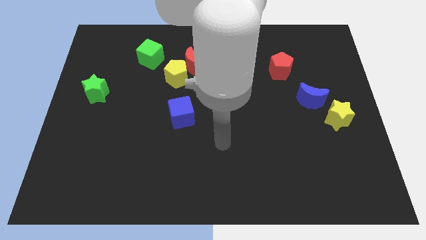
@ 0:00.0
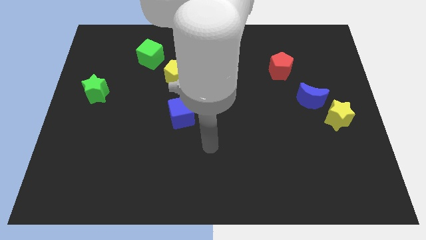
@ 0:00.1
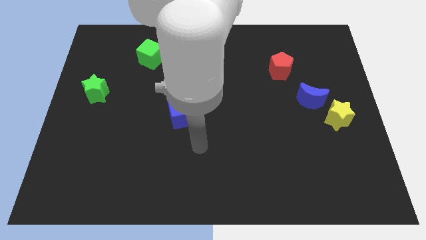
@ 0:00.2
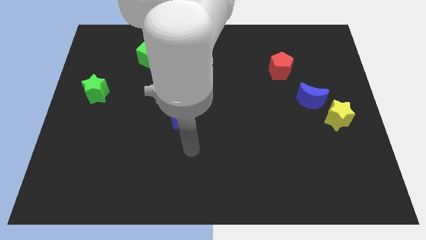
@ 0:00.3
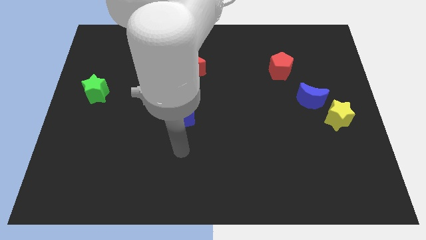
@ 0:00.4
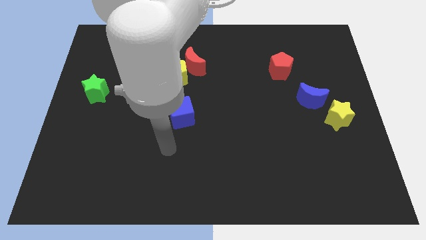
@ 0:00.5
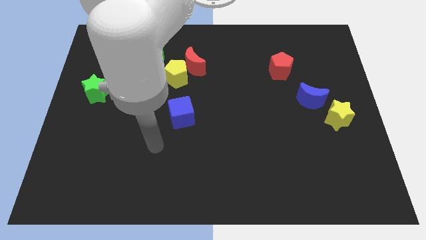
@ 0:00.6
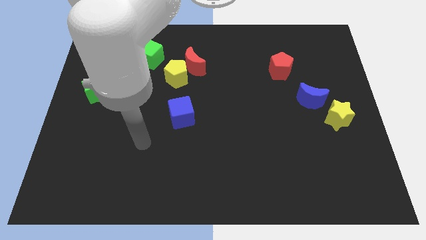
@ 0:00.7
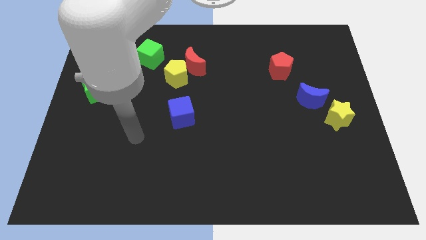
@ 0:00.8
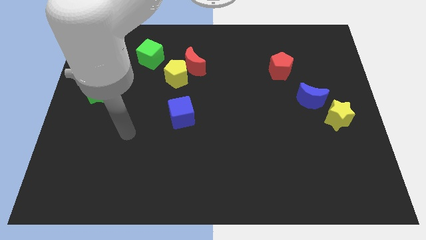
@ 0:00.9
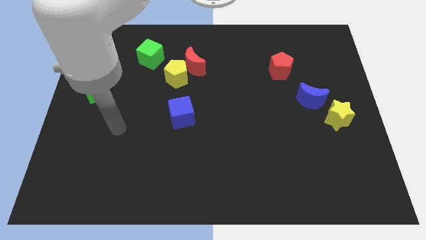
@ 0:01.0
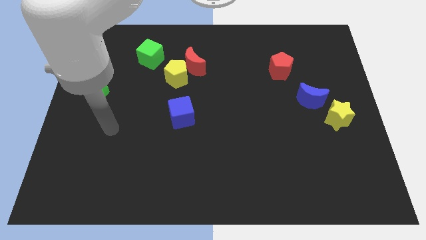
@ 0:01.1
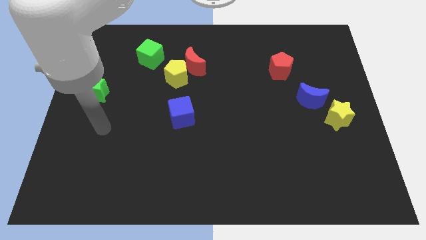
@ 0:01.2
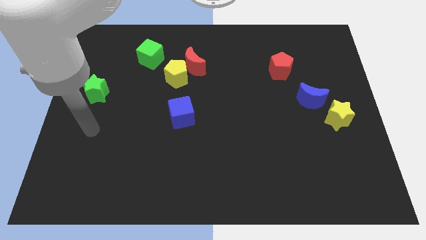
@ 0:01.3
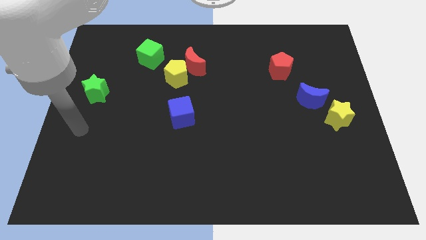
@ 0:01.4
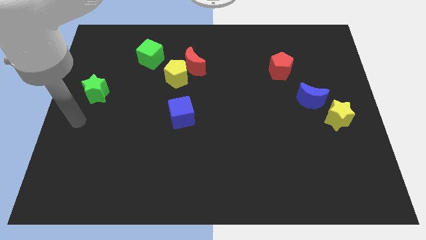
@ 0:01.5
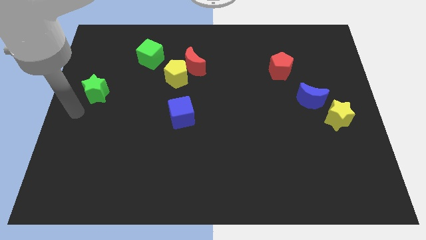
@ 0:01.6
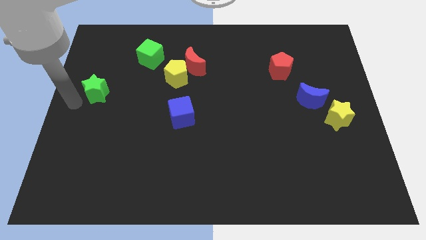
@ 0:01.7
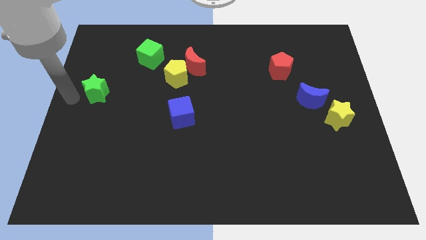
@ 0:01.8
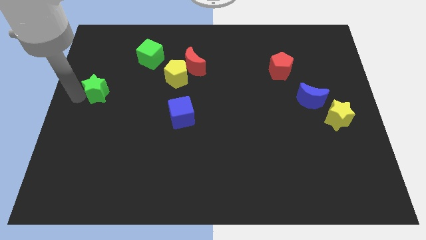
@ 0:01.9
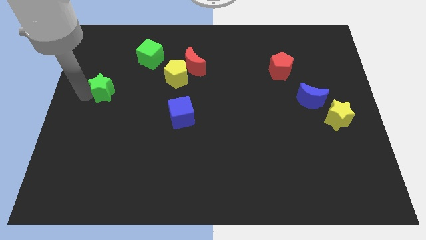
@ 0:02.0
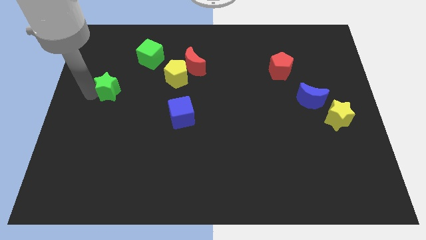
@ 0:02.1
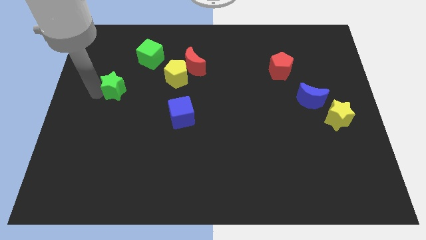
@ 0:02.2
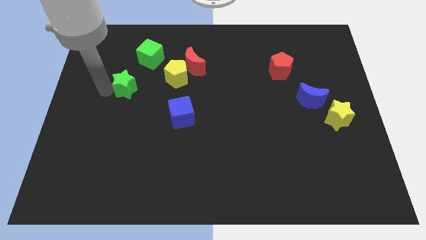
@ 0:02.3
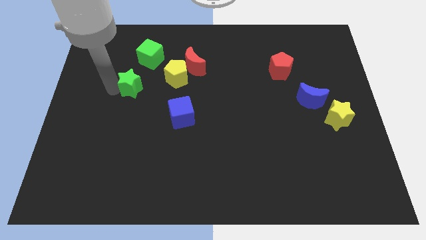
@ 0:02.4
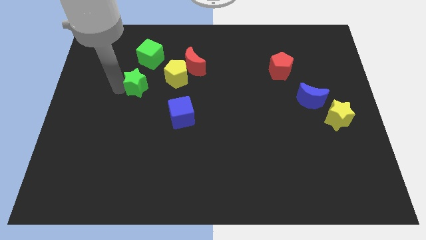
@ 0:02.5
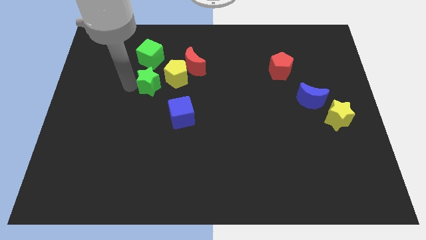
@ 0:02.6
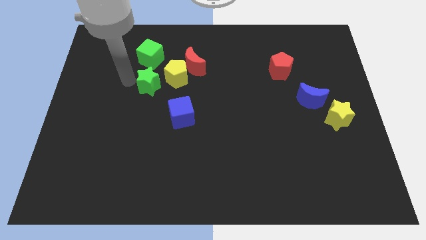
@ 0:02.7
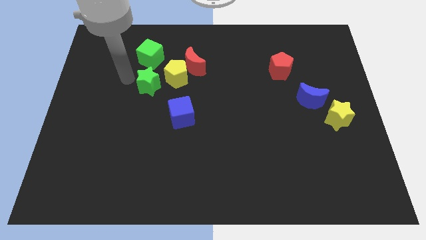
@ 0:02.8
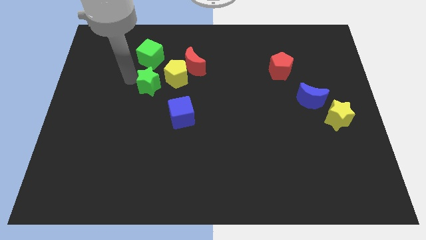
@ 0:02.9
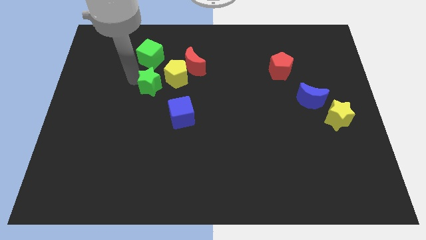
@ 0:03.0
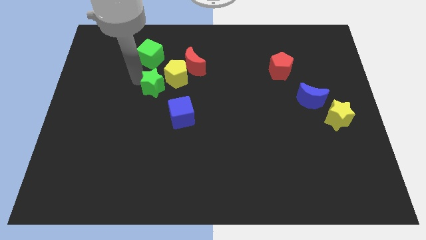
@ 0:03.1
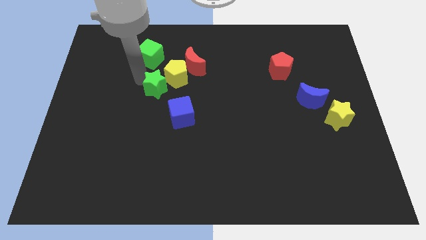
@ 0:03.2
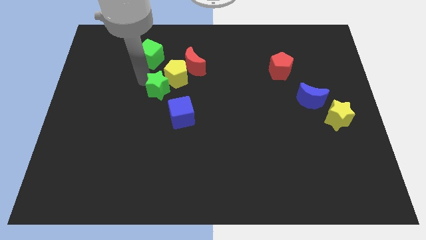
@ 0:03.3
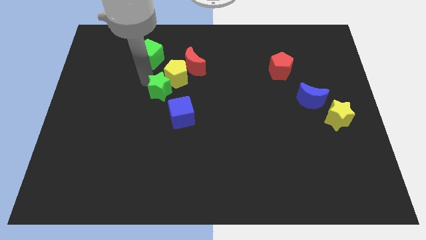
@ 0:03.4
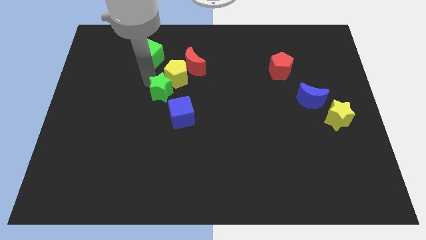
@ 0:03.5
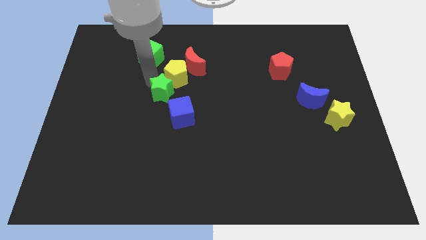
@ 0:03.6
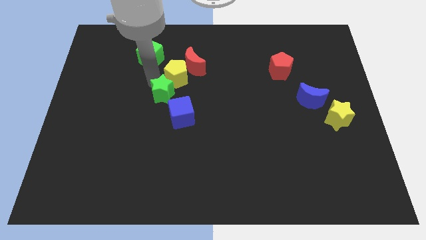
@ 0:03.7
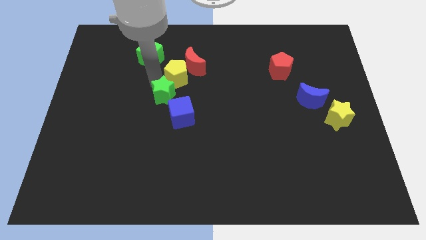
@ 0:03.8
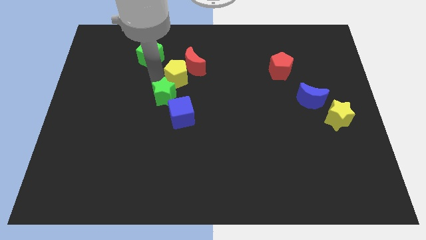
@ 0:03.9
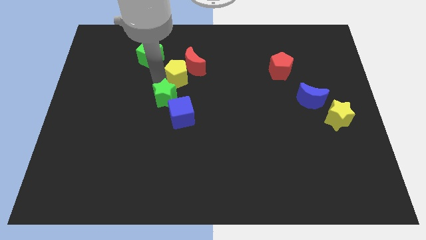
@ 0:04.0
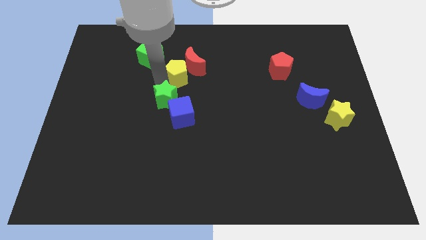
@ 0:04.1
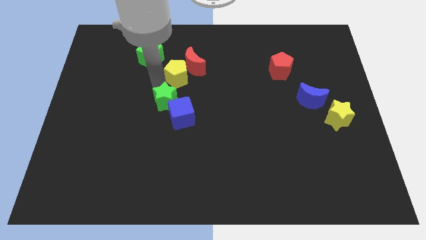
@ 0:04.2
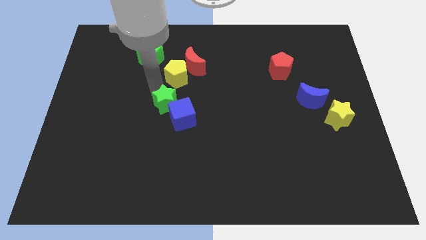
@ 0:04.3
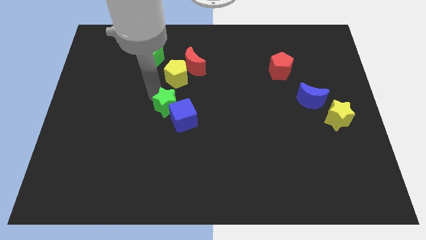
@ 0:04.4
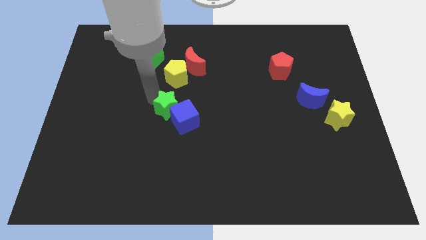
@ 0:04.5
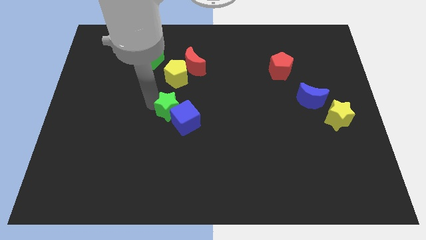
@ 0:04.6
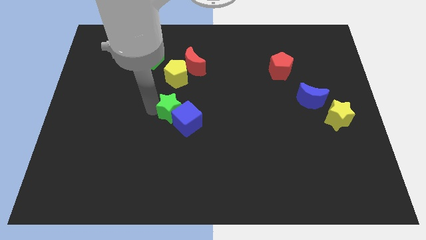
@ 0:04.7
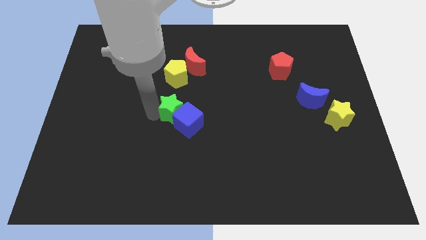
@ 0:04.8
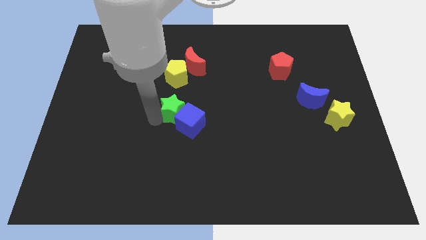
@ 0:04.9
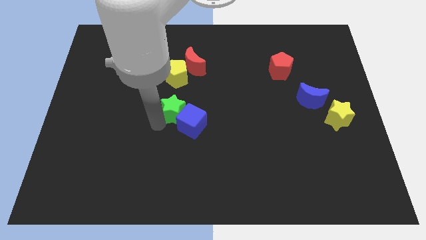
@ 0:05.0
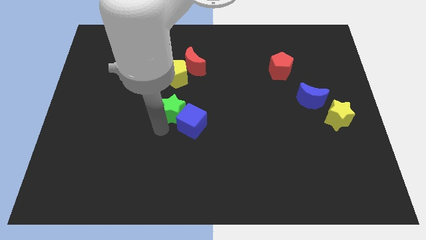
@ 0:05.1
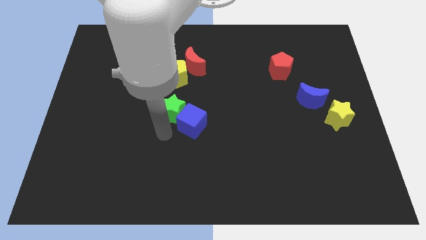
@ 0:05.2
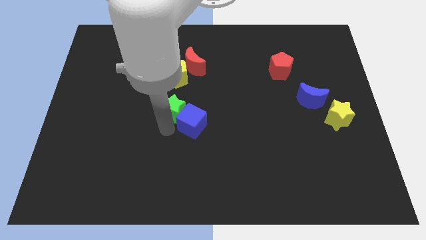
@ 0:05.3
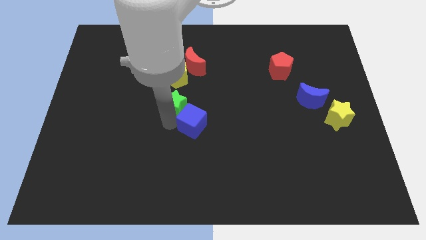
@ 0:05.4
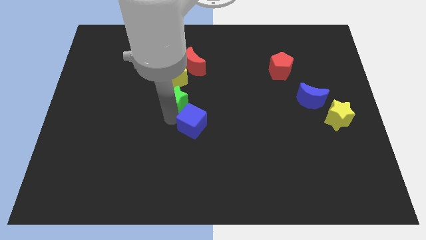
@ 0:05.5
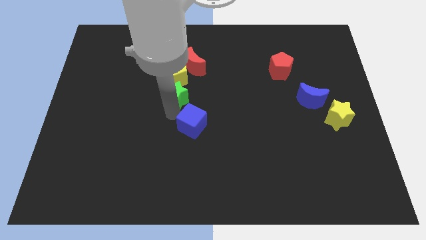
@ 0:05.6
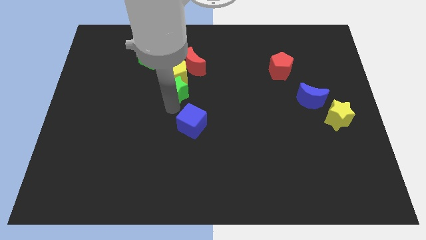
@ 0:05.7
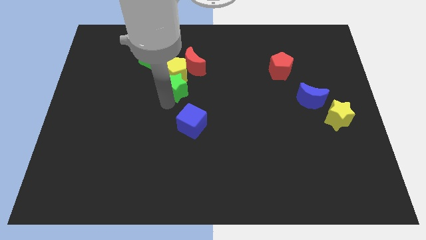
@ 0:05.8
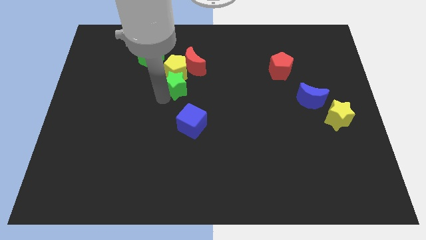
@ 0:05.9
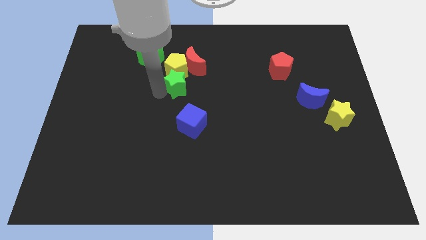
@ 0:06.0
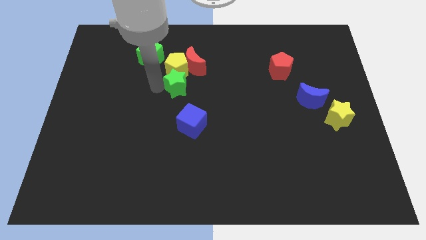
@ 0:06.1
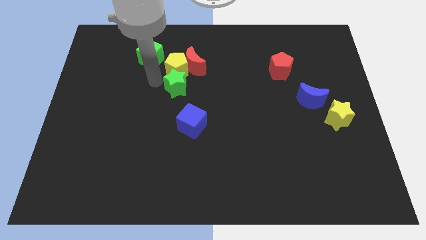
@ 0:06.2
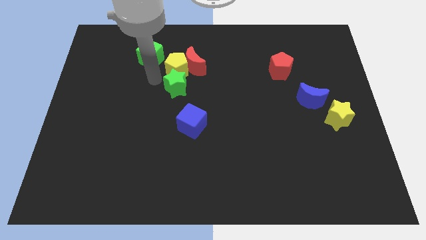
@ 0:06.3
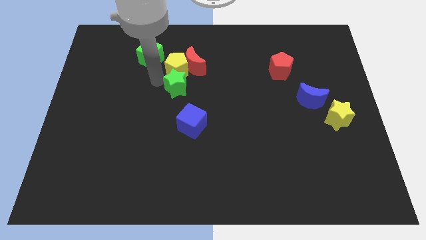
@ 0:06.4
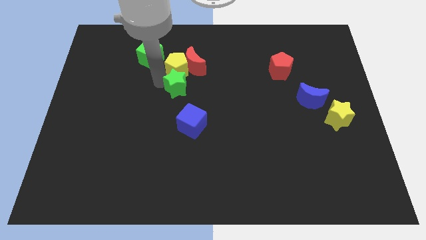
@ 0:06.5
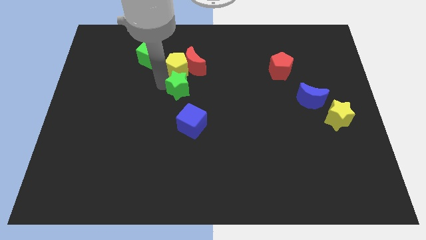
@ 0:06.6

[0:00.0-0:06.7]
push the green star to the right

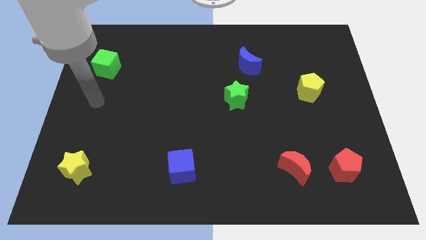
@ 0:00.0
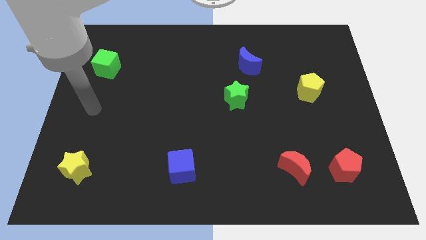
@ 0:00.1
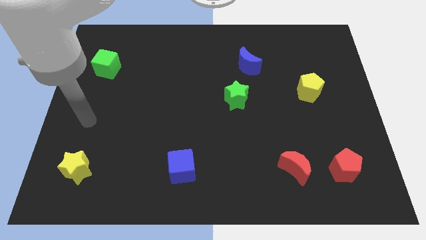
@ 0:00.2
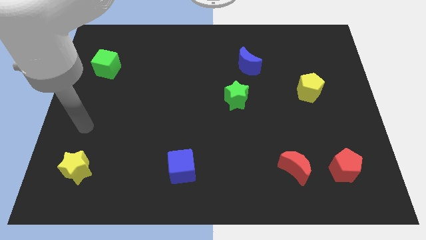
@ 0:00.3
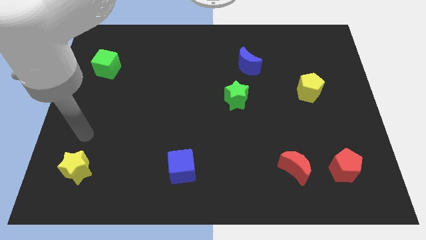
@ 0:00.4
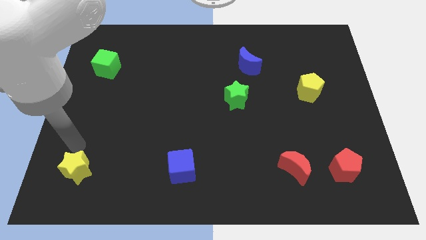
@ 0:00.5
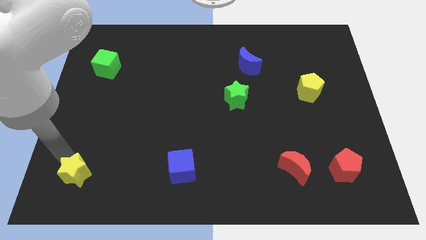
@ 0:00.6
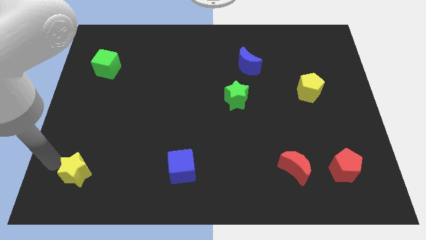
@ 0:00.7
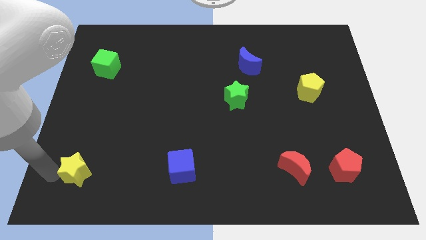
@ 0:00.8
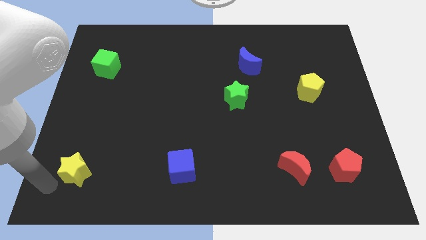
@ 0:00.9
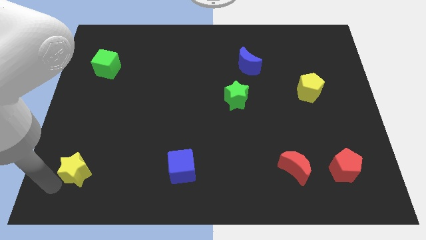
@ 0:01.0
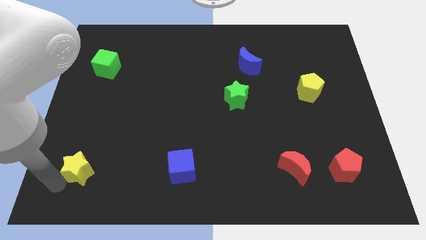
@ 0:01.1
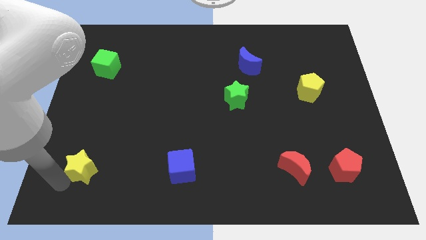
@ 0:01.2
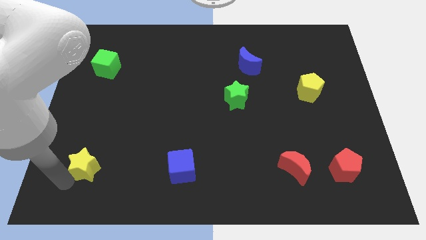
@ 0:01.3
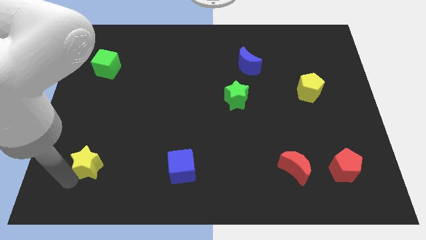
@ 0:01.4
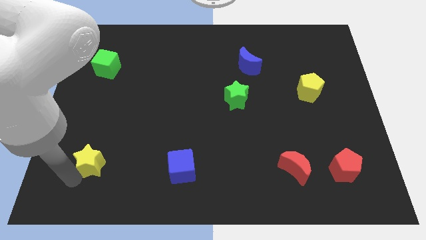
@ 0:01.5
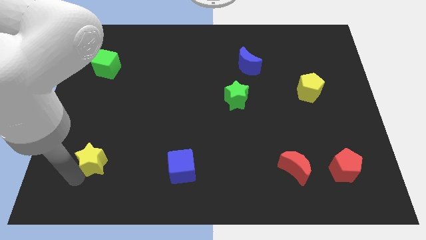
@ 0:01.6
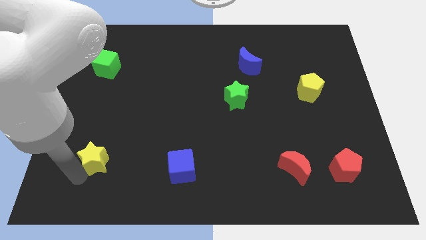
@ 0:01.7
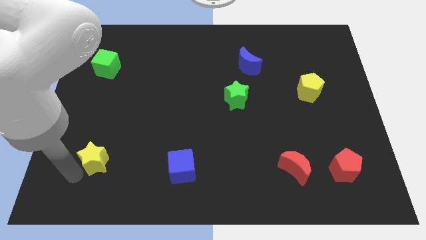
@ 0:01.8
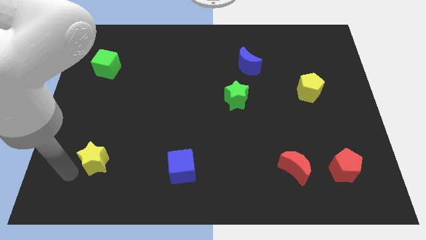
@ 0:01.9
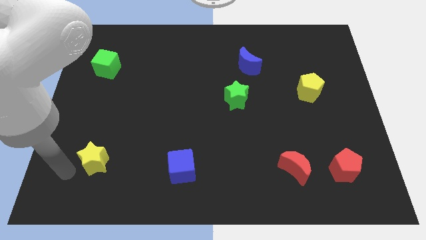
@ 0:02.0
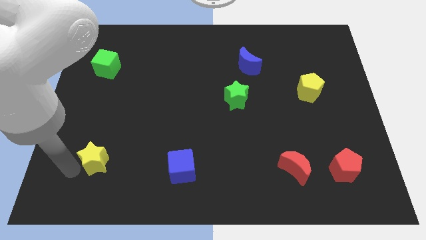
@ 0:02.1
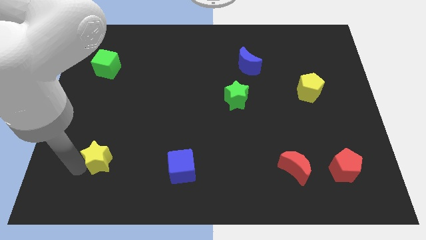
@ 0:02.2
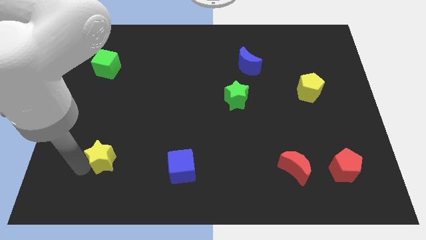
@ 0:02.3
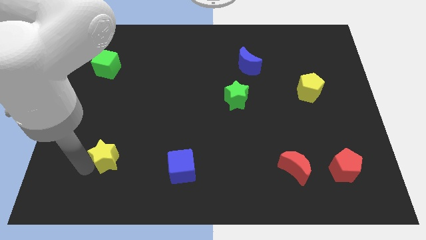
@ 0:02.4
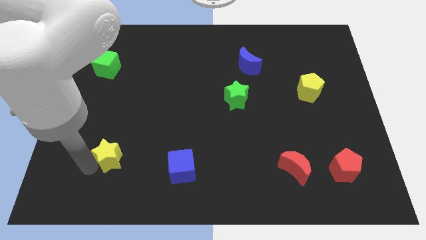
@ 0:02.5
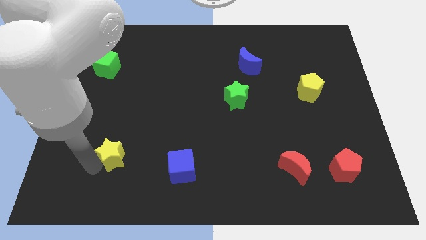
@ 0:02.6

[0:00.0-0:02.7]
push the yellow star a little upwards and to the right diagonally
